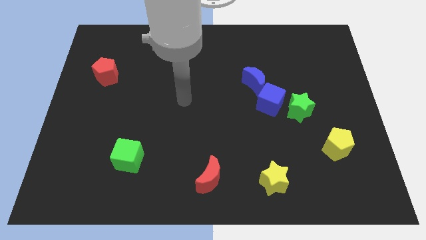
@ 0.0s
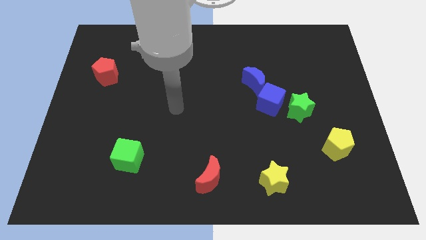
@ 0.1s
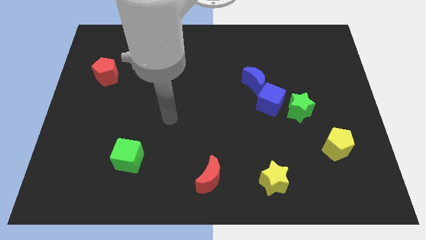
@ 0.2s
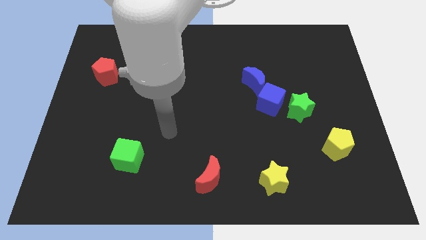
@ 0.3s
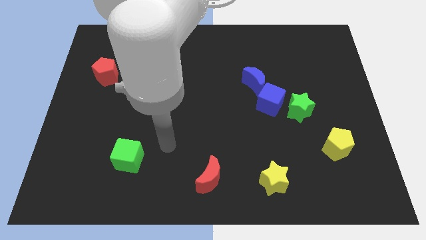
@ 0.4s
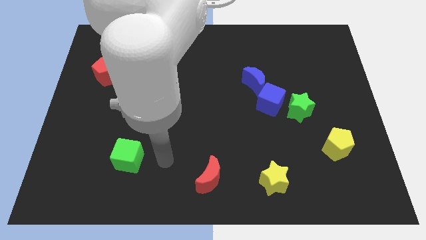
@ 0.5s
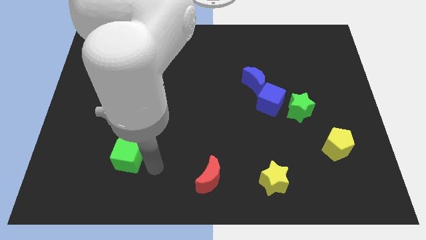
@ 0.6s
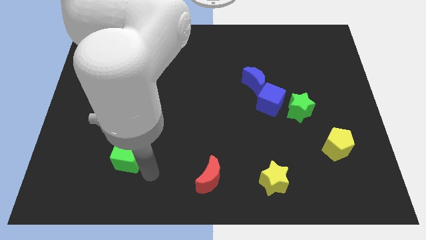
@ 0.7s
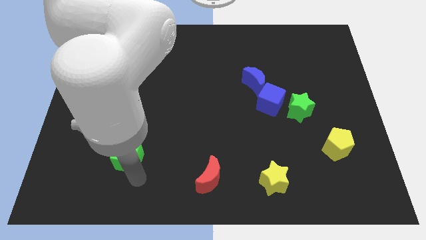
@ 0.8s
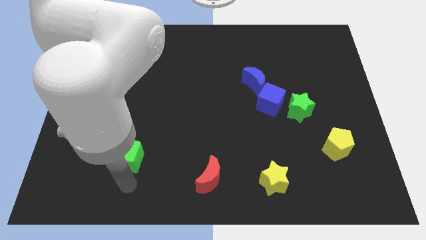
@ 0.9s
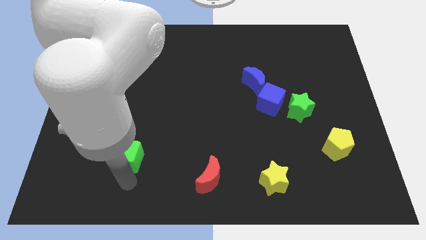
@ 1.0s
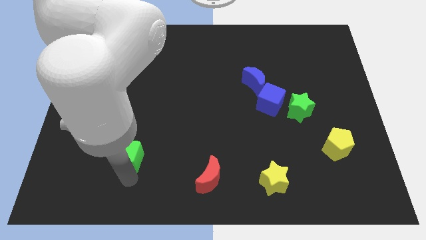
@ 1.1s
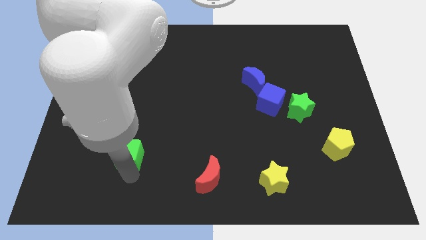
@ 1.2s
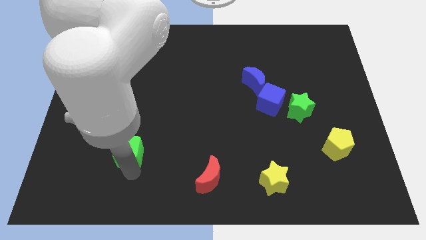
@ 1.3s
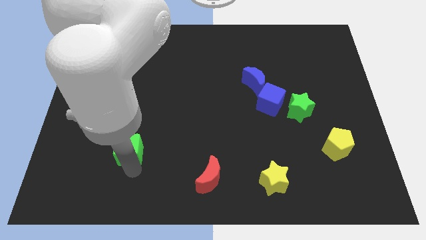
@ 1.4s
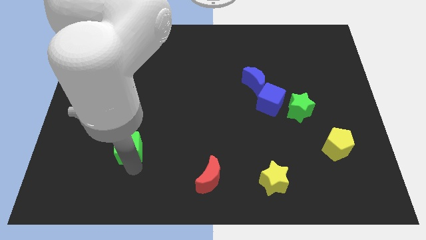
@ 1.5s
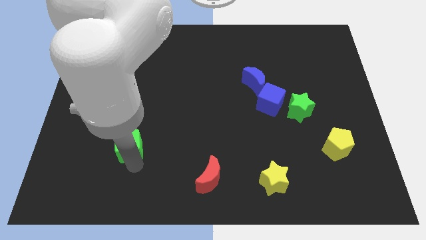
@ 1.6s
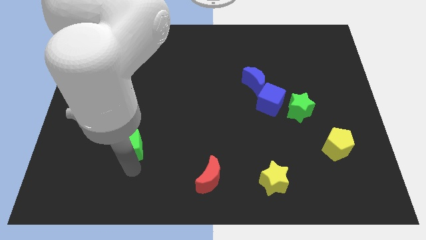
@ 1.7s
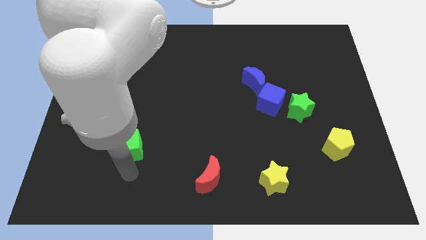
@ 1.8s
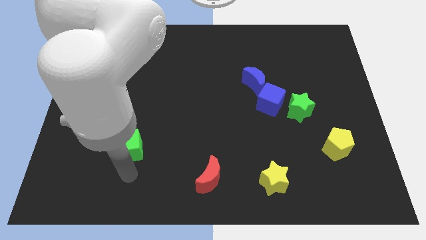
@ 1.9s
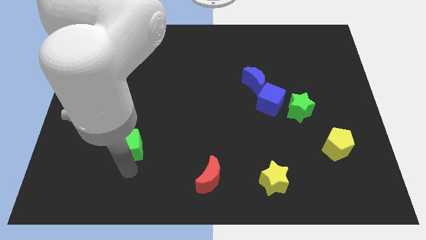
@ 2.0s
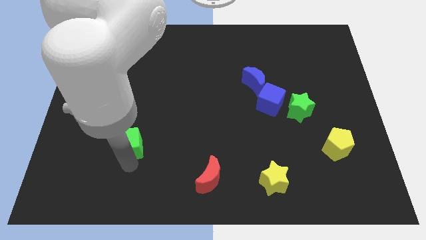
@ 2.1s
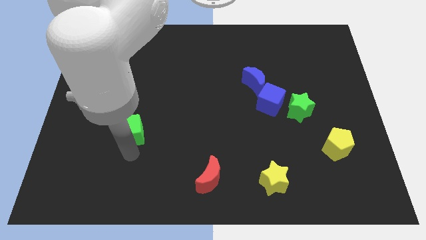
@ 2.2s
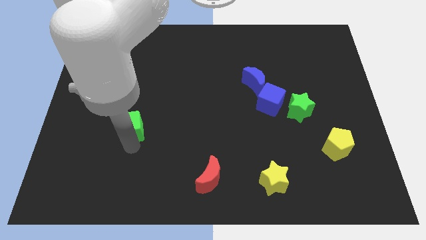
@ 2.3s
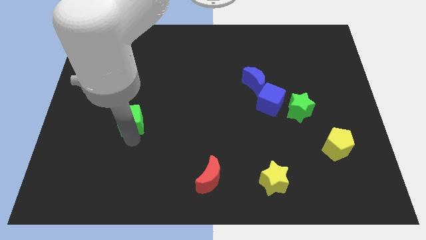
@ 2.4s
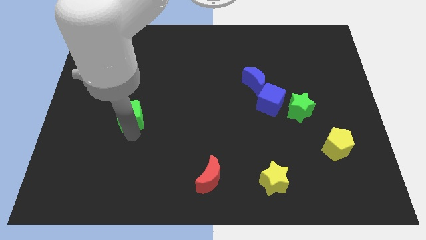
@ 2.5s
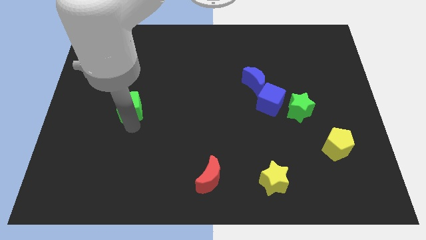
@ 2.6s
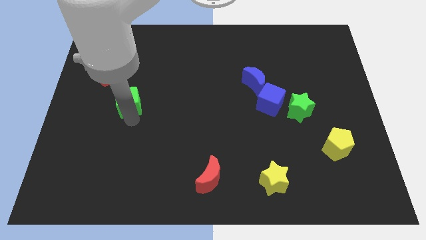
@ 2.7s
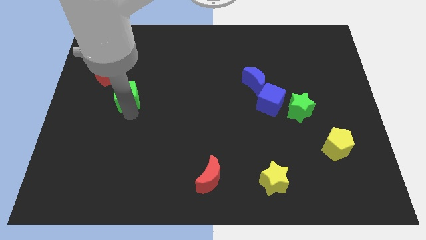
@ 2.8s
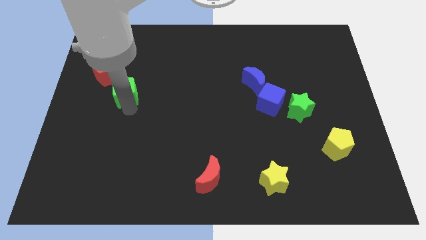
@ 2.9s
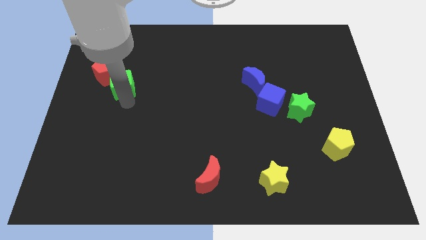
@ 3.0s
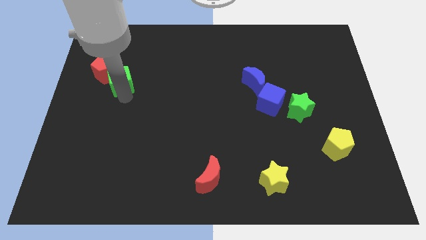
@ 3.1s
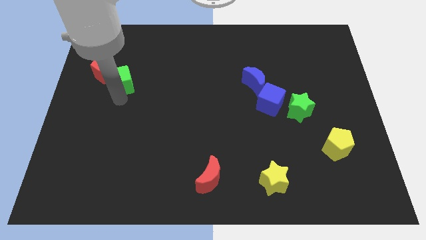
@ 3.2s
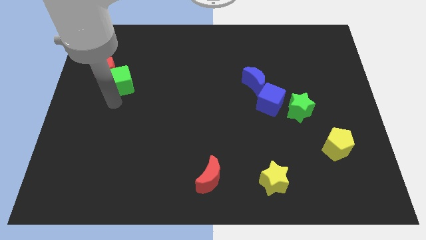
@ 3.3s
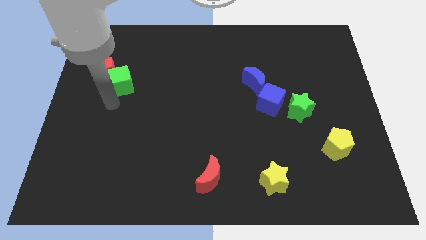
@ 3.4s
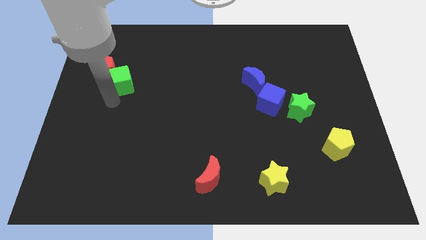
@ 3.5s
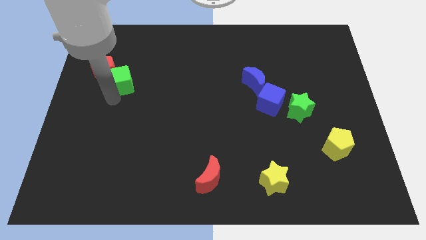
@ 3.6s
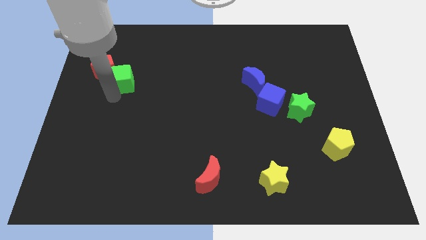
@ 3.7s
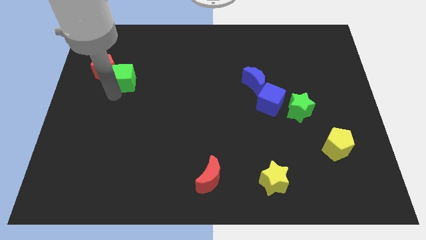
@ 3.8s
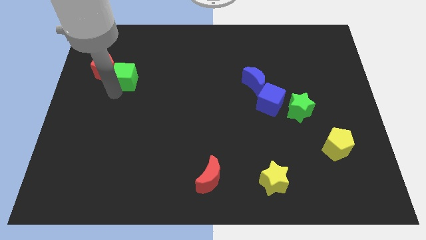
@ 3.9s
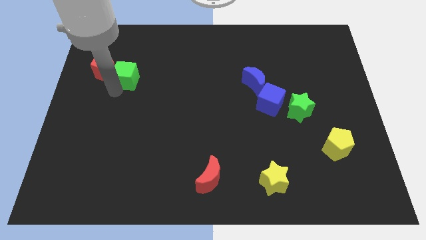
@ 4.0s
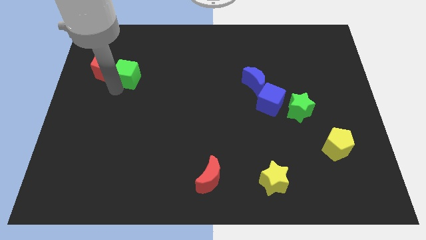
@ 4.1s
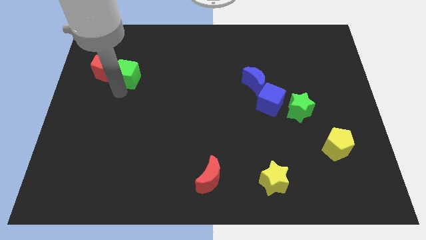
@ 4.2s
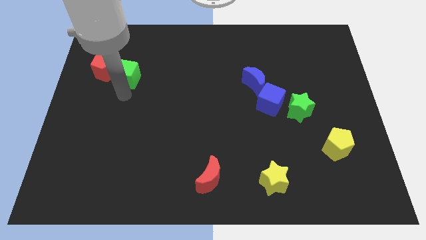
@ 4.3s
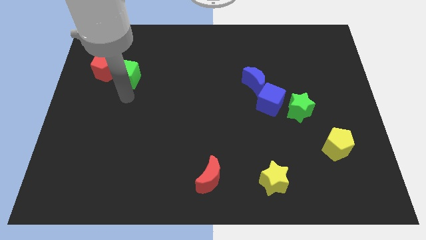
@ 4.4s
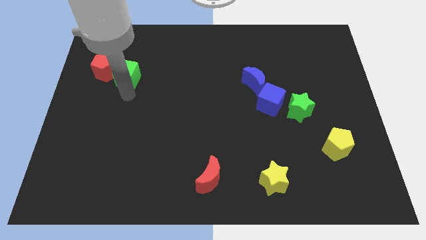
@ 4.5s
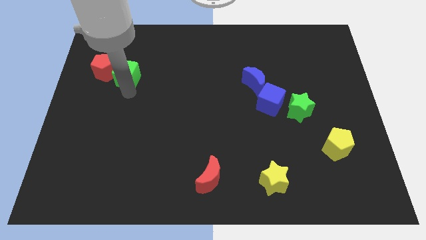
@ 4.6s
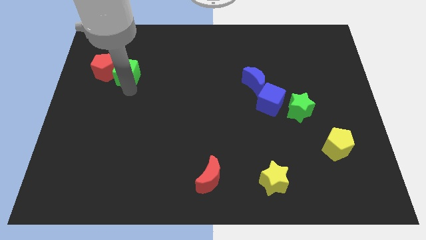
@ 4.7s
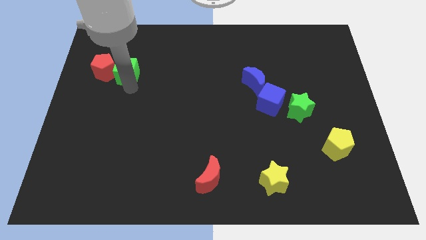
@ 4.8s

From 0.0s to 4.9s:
move the green cube to the top right side of the red pentagon

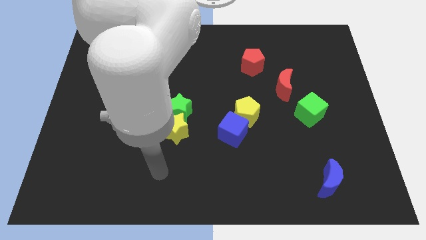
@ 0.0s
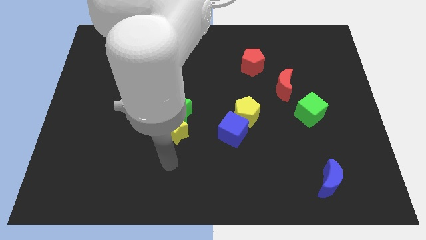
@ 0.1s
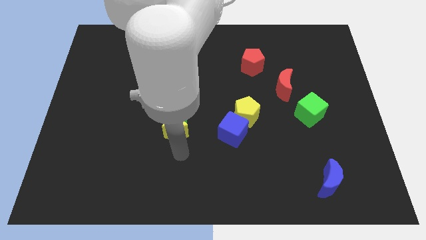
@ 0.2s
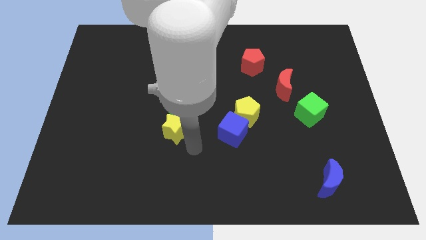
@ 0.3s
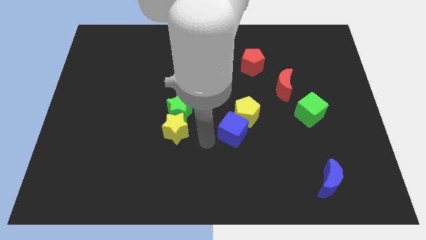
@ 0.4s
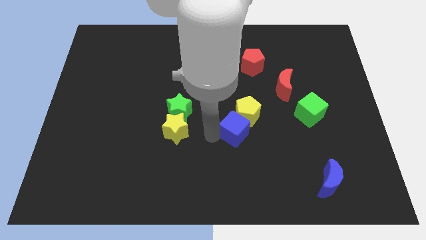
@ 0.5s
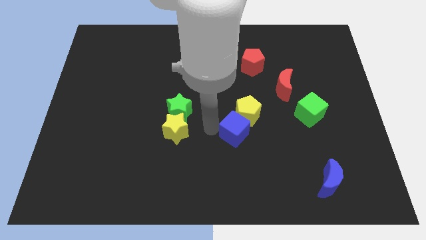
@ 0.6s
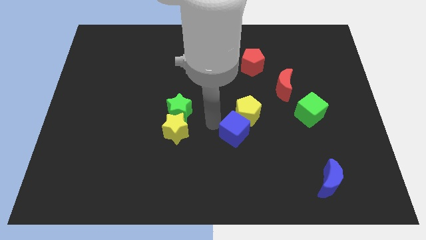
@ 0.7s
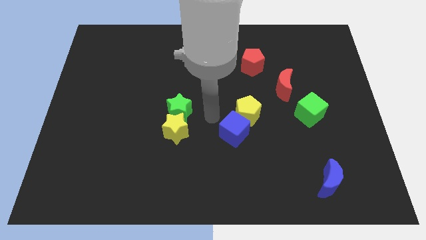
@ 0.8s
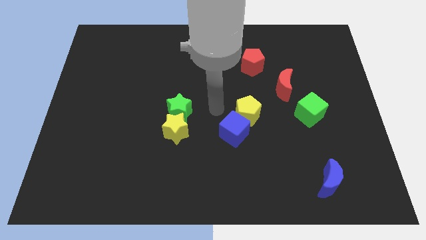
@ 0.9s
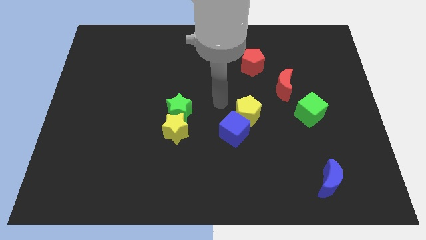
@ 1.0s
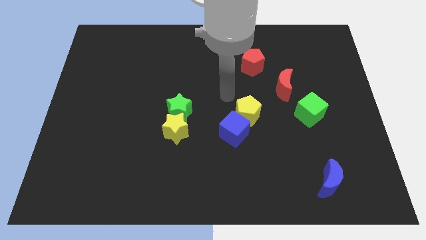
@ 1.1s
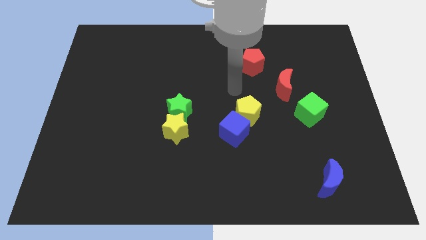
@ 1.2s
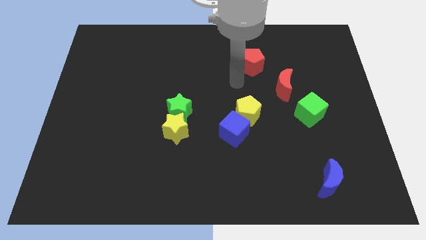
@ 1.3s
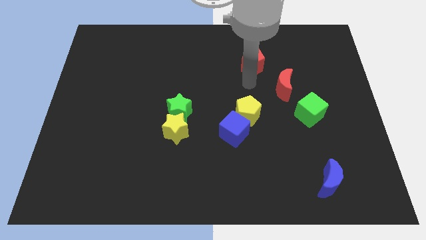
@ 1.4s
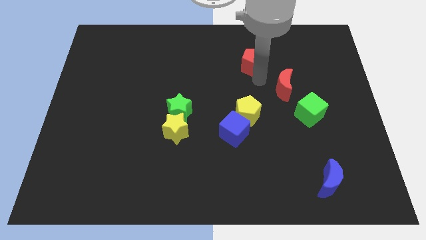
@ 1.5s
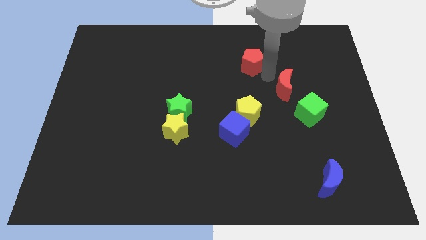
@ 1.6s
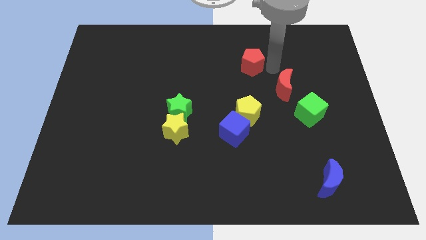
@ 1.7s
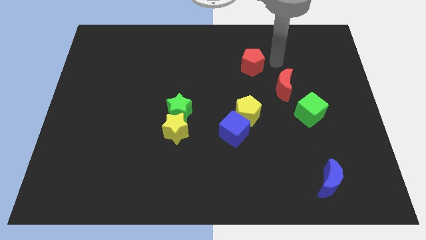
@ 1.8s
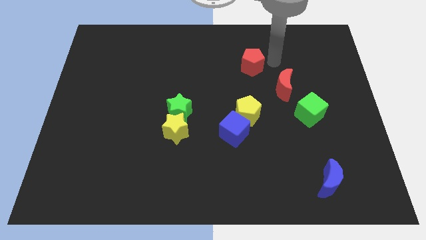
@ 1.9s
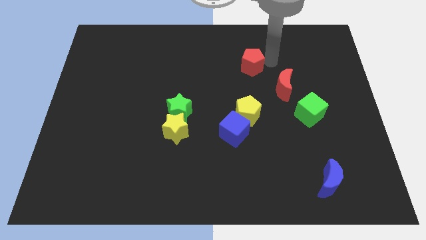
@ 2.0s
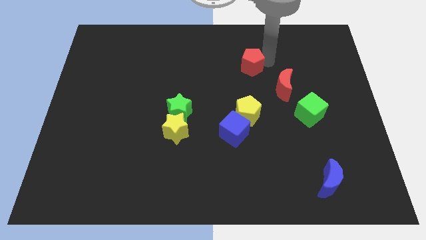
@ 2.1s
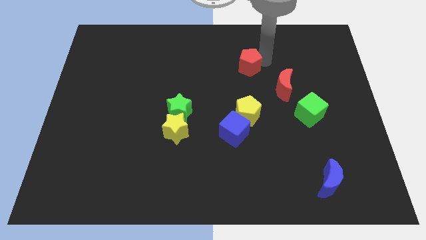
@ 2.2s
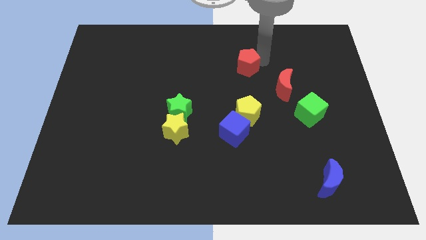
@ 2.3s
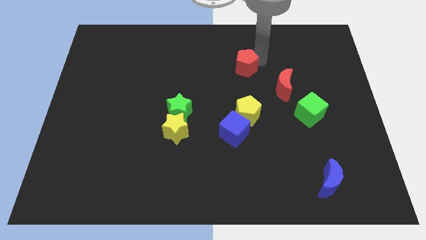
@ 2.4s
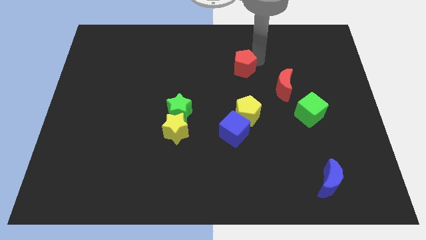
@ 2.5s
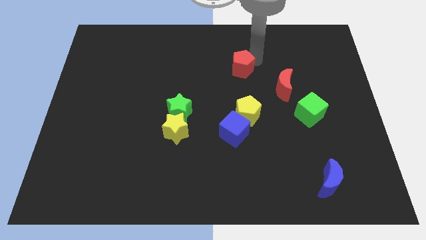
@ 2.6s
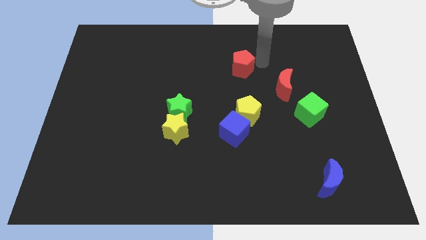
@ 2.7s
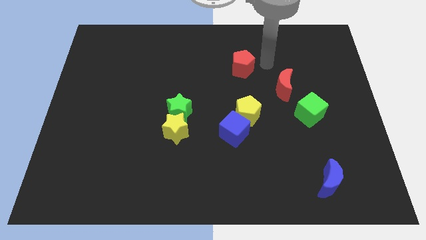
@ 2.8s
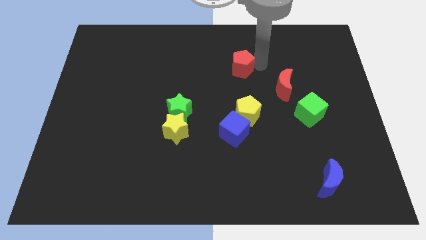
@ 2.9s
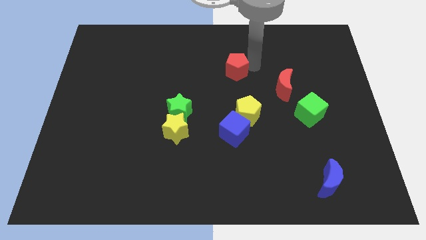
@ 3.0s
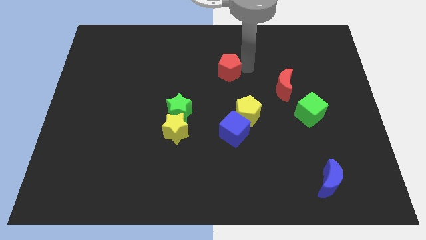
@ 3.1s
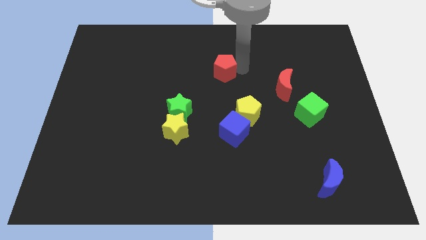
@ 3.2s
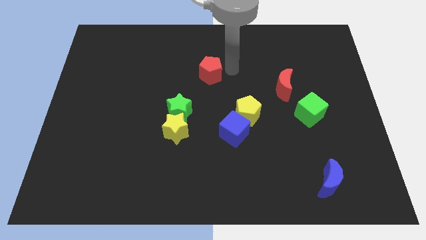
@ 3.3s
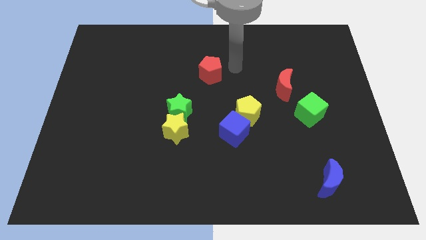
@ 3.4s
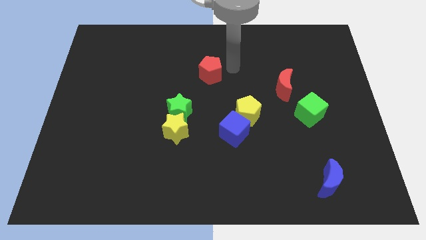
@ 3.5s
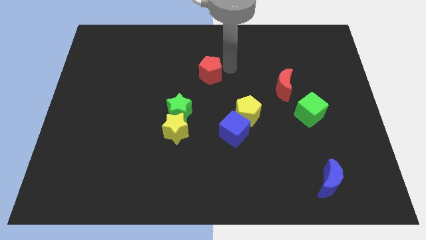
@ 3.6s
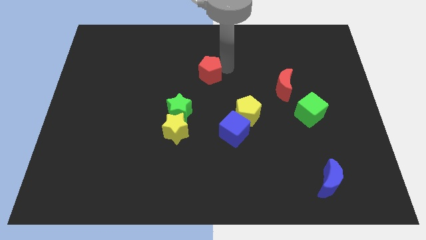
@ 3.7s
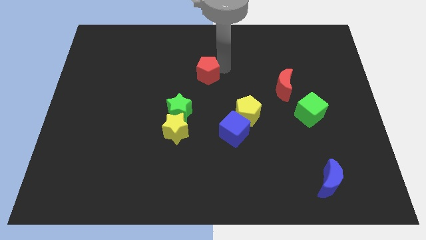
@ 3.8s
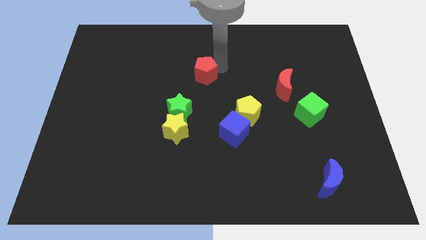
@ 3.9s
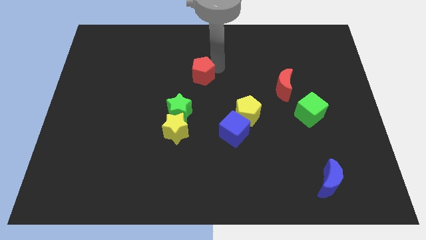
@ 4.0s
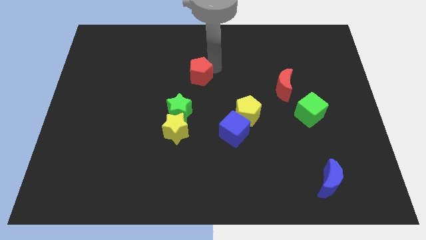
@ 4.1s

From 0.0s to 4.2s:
move the red pentagon to the top of the green star
